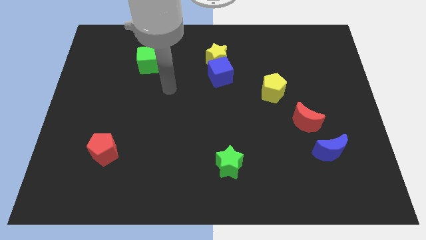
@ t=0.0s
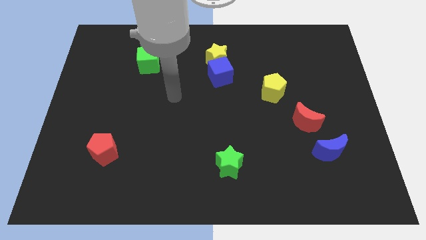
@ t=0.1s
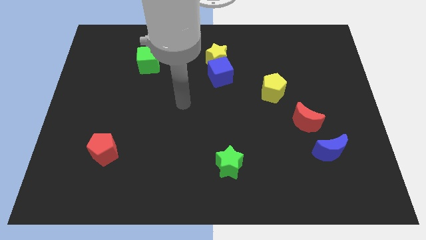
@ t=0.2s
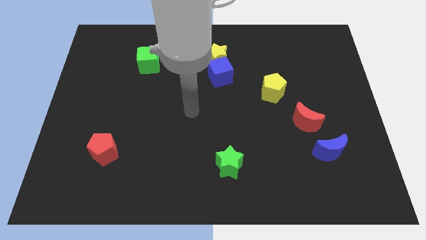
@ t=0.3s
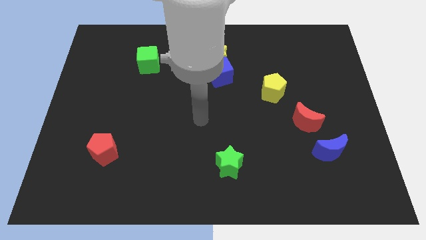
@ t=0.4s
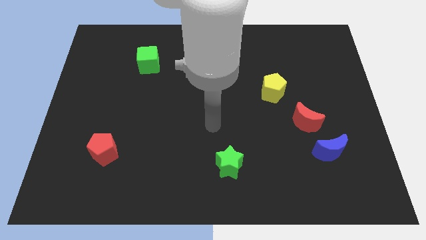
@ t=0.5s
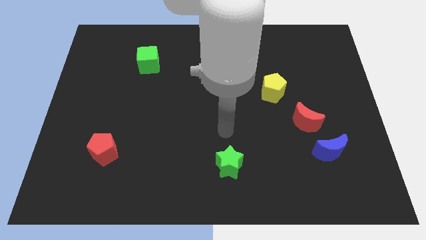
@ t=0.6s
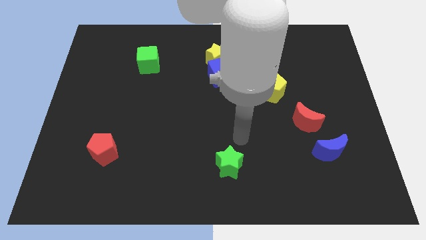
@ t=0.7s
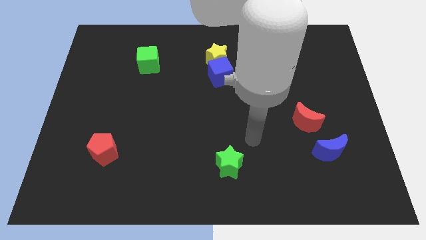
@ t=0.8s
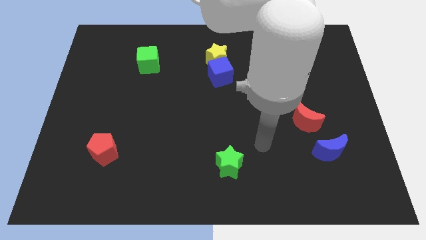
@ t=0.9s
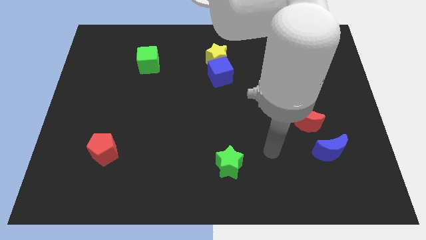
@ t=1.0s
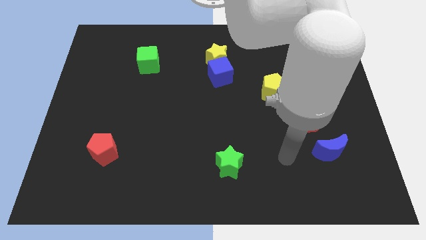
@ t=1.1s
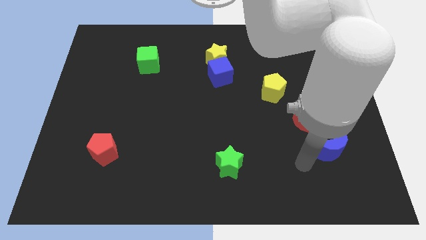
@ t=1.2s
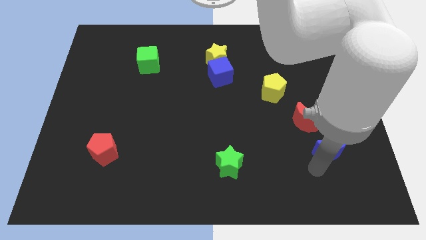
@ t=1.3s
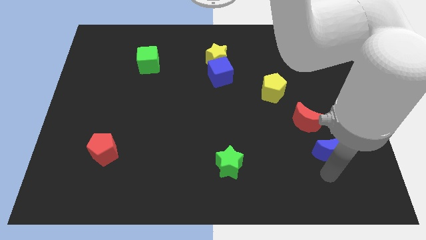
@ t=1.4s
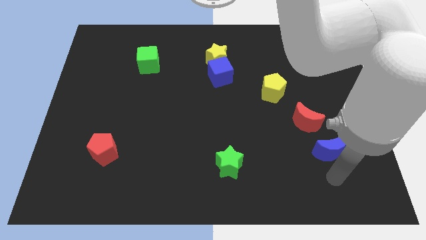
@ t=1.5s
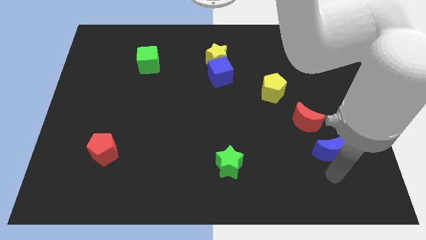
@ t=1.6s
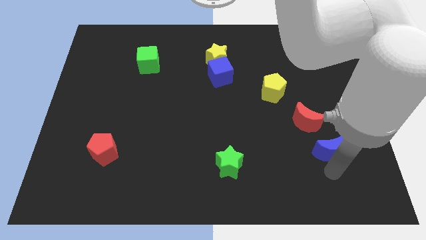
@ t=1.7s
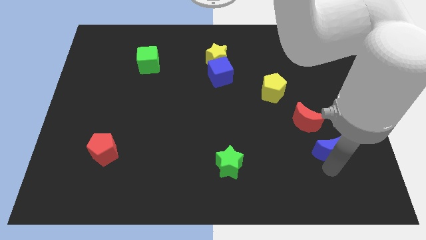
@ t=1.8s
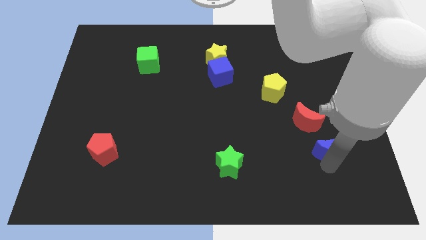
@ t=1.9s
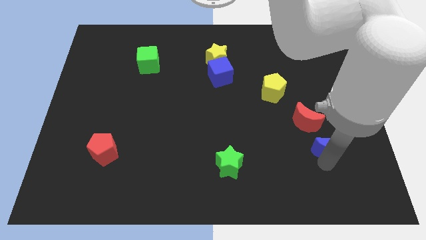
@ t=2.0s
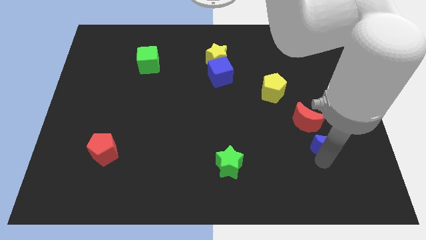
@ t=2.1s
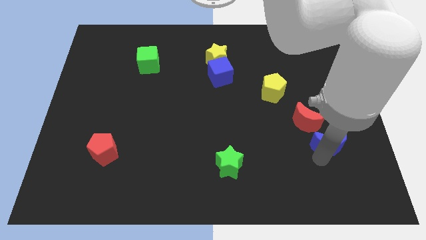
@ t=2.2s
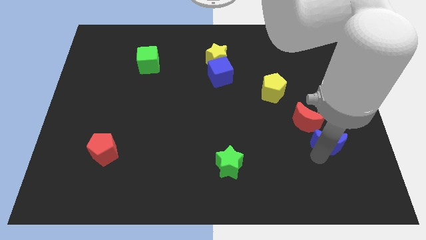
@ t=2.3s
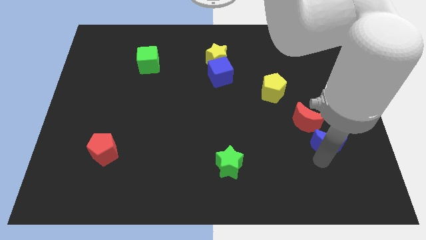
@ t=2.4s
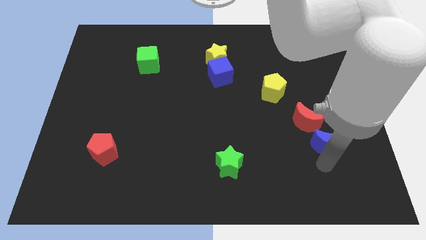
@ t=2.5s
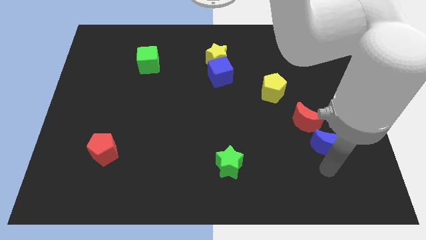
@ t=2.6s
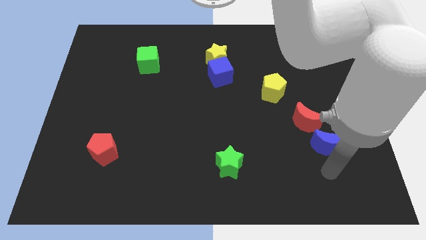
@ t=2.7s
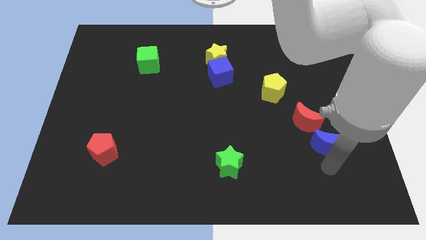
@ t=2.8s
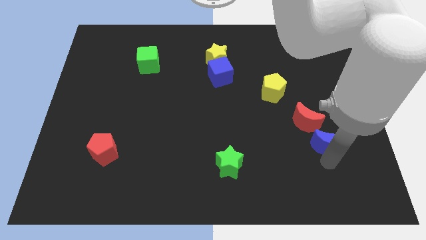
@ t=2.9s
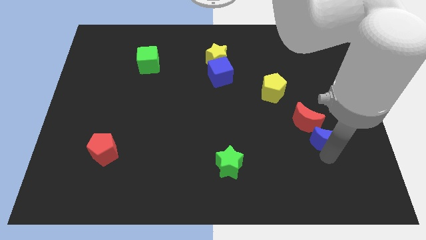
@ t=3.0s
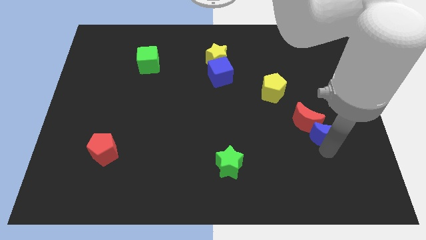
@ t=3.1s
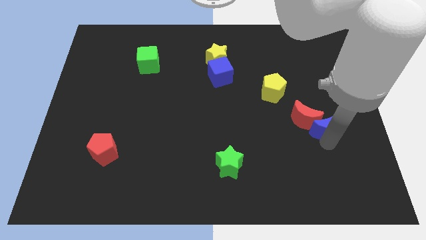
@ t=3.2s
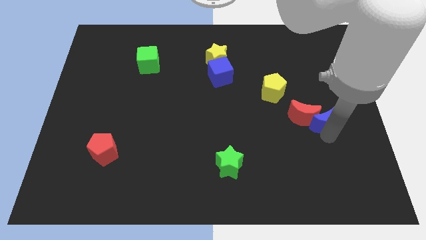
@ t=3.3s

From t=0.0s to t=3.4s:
slide the blue moon upwards slightly

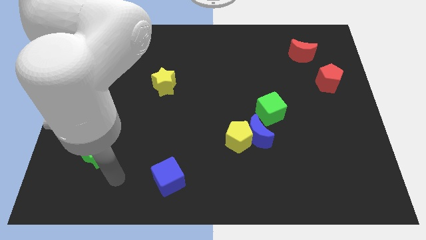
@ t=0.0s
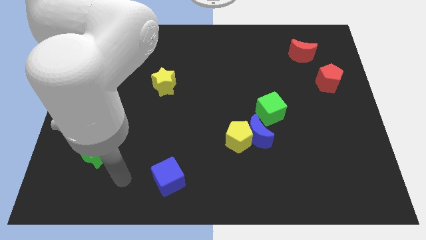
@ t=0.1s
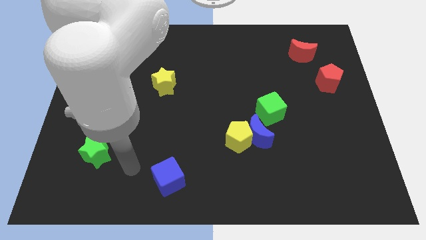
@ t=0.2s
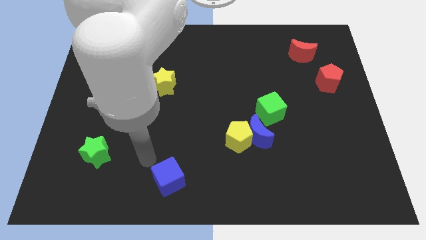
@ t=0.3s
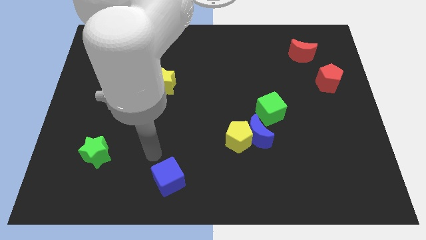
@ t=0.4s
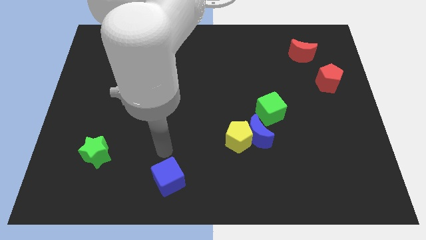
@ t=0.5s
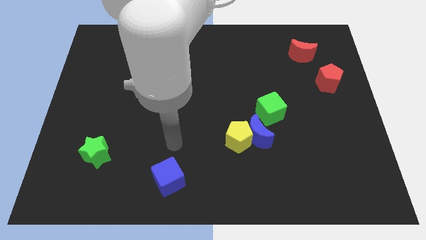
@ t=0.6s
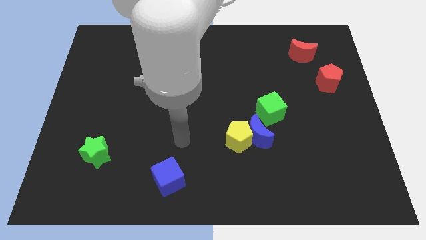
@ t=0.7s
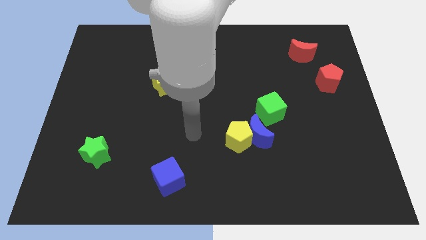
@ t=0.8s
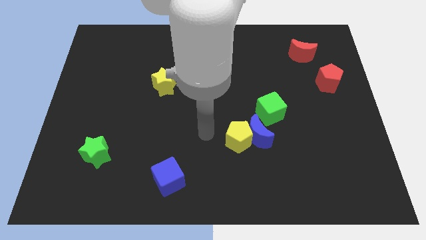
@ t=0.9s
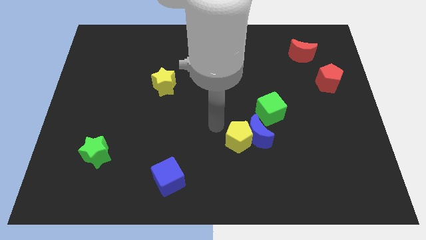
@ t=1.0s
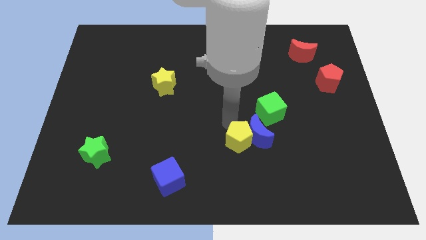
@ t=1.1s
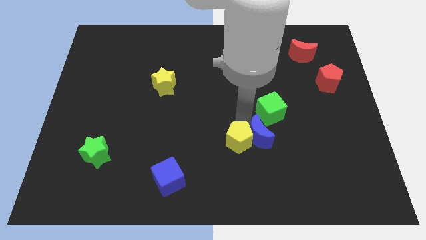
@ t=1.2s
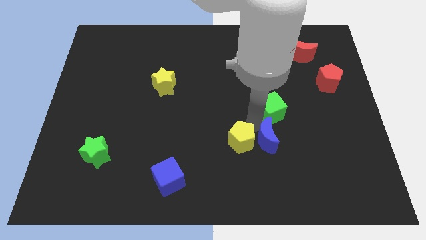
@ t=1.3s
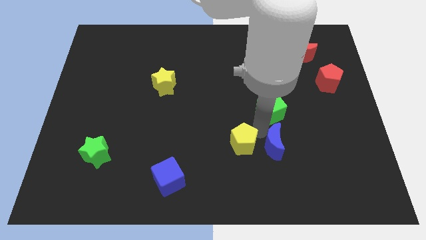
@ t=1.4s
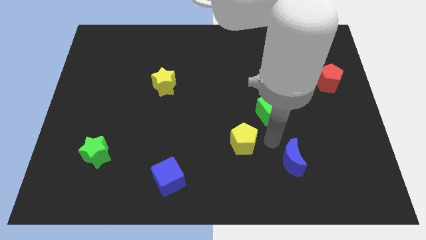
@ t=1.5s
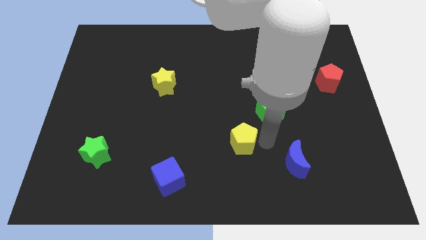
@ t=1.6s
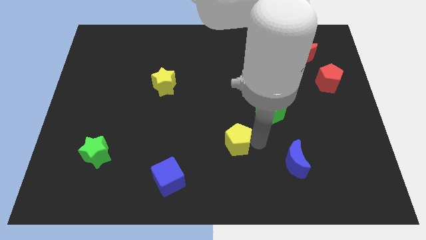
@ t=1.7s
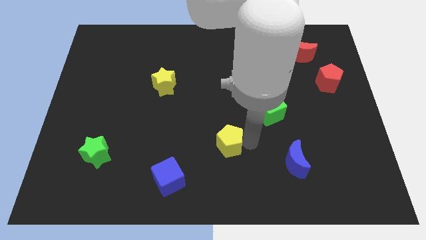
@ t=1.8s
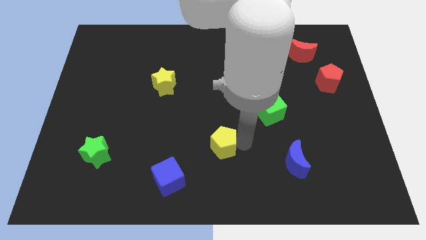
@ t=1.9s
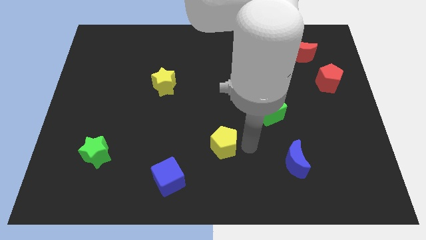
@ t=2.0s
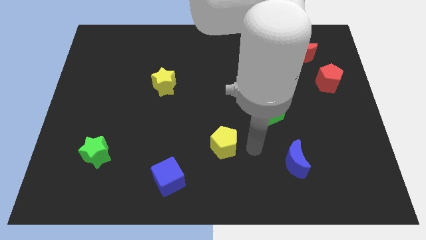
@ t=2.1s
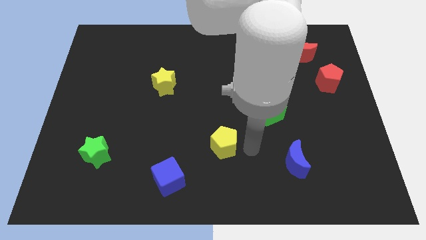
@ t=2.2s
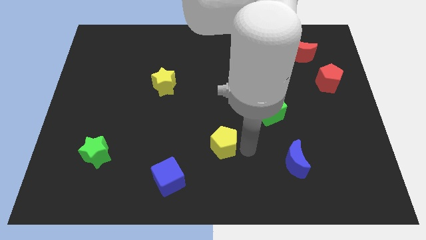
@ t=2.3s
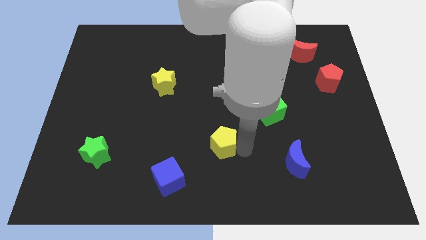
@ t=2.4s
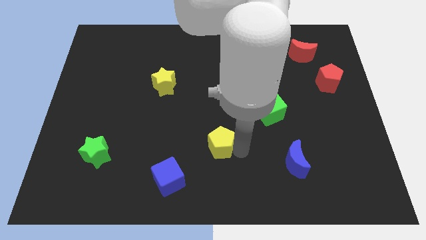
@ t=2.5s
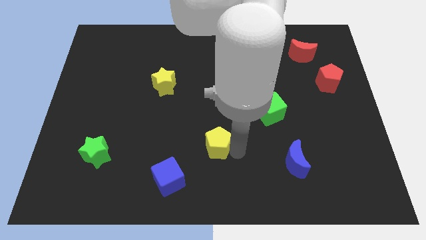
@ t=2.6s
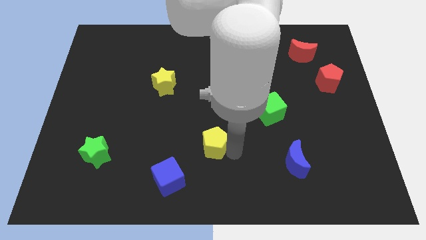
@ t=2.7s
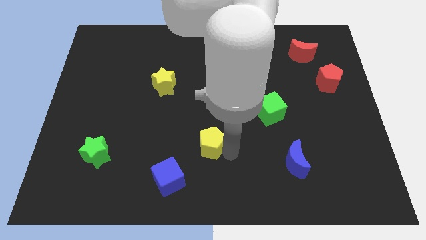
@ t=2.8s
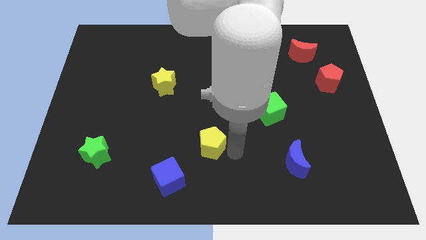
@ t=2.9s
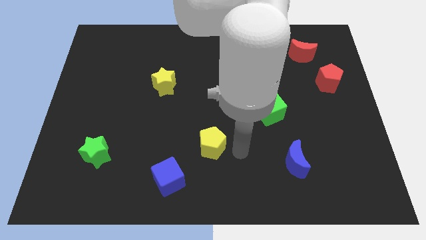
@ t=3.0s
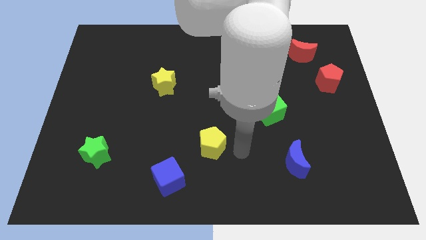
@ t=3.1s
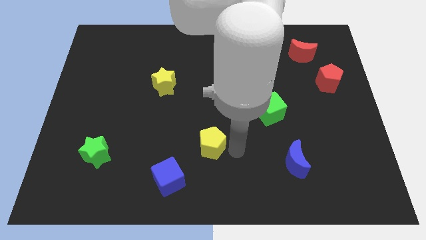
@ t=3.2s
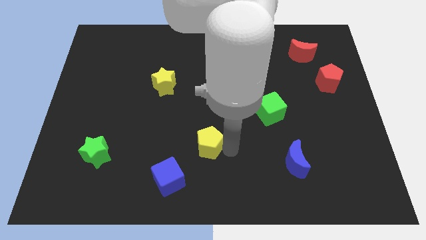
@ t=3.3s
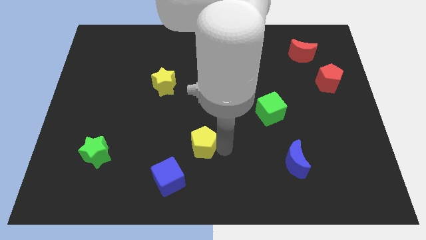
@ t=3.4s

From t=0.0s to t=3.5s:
move the yellow pentagon somewhat to the left

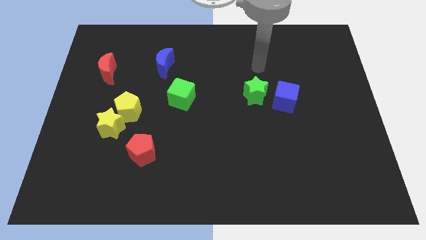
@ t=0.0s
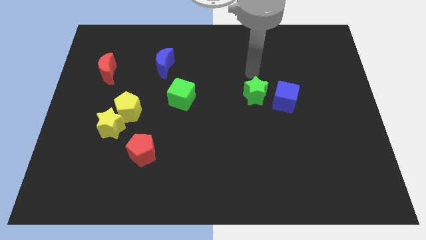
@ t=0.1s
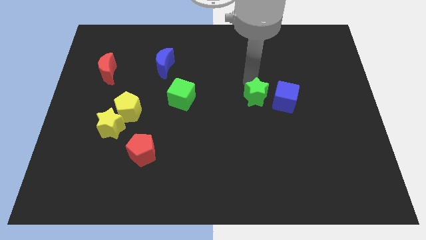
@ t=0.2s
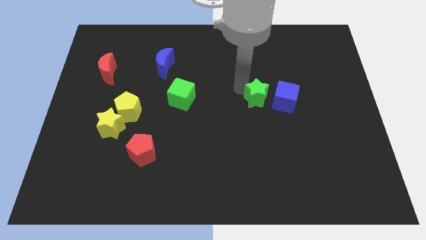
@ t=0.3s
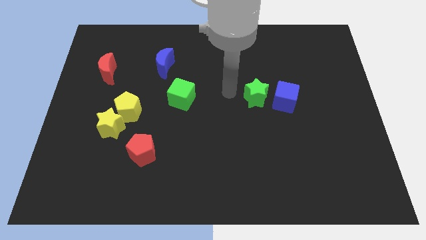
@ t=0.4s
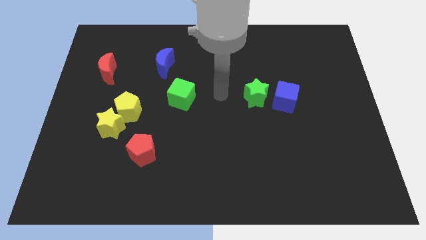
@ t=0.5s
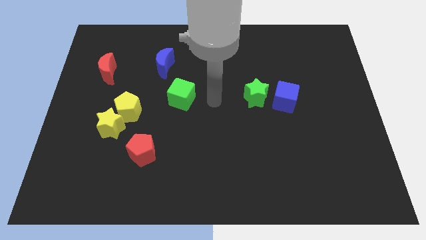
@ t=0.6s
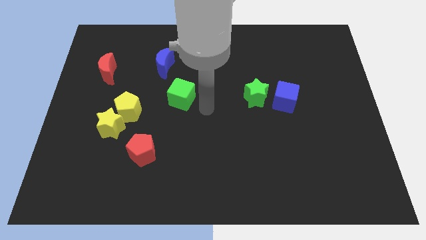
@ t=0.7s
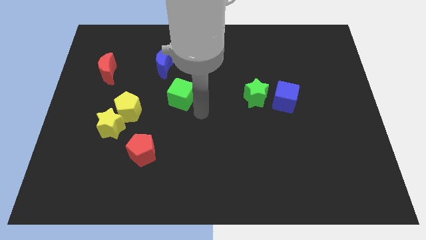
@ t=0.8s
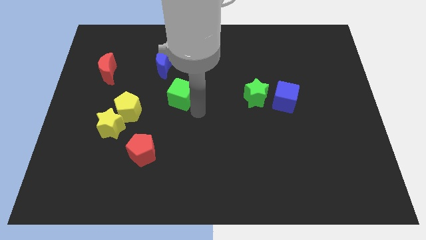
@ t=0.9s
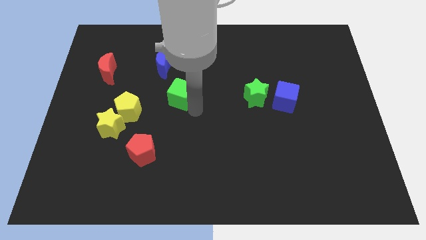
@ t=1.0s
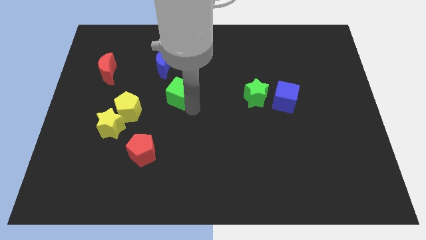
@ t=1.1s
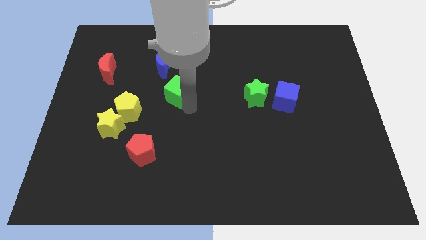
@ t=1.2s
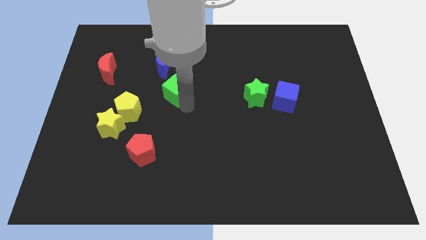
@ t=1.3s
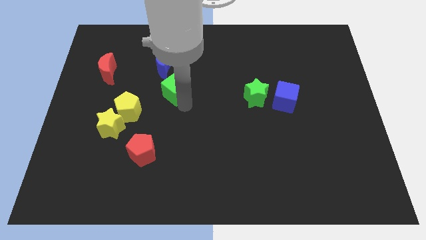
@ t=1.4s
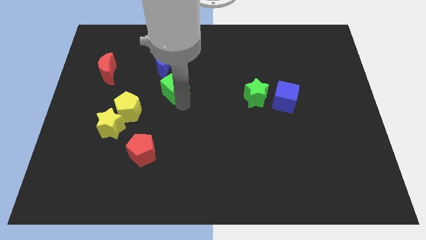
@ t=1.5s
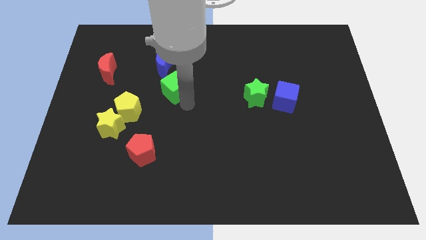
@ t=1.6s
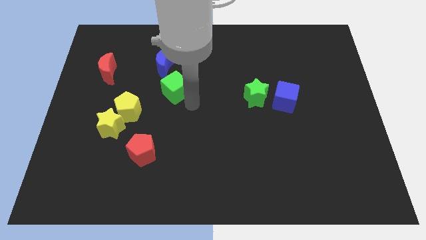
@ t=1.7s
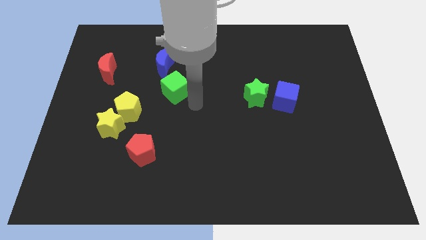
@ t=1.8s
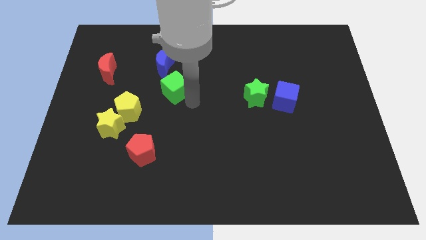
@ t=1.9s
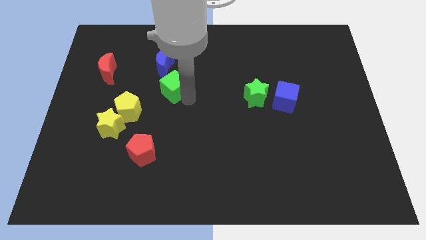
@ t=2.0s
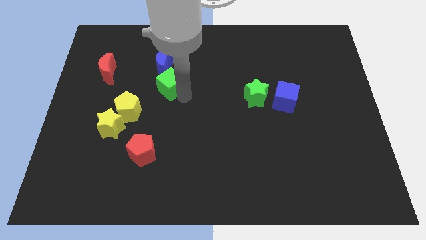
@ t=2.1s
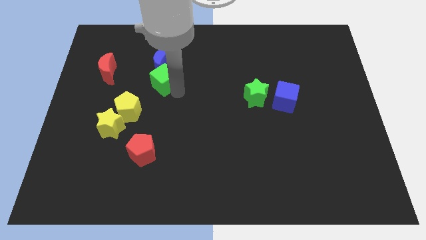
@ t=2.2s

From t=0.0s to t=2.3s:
move the green cube a little up and to the left
